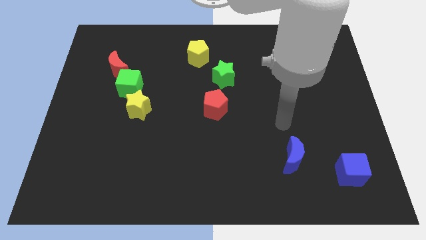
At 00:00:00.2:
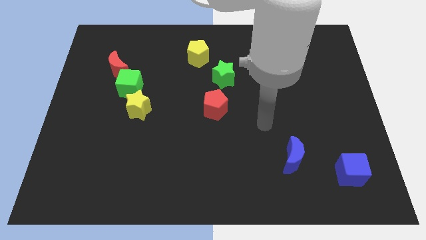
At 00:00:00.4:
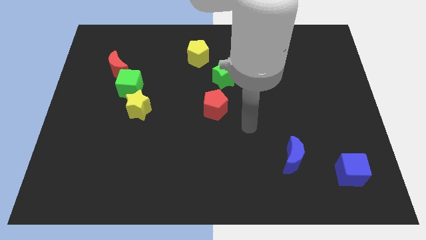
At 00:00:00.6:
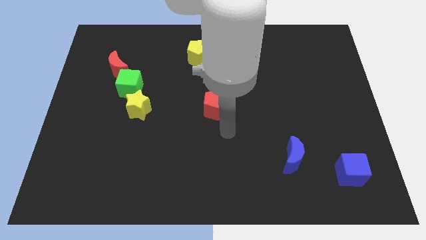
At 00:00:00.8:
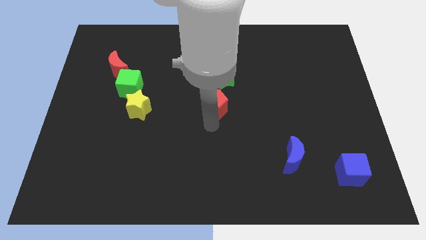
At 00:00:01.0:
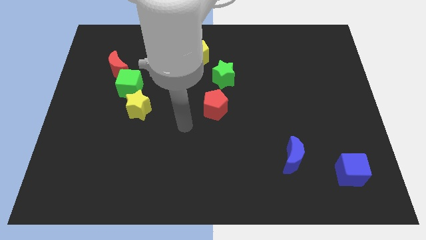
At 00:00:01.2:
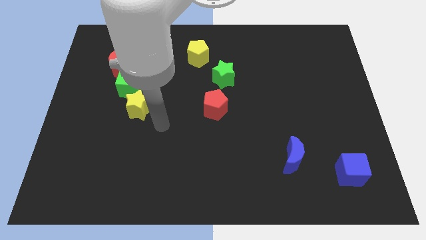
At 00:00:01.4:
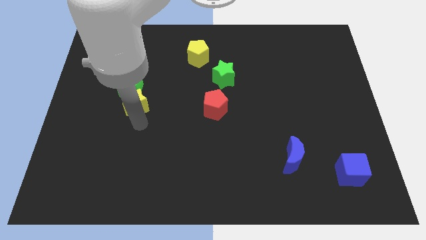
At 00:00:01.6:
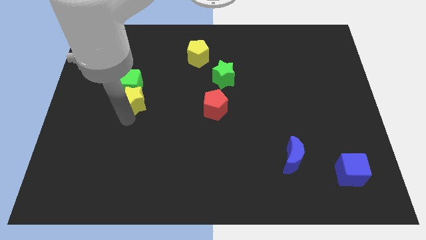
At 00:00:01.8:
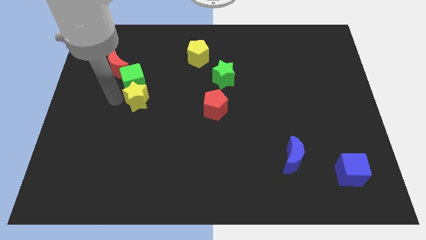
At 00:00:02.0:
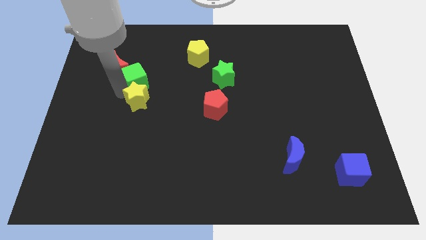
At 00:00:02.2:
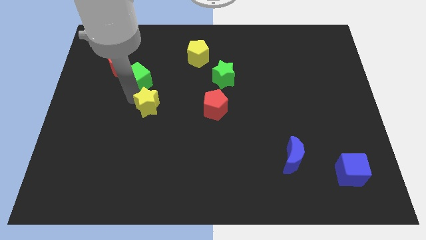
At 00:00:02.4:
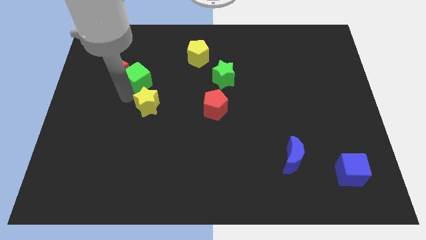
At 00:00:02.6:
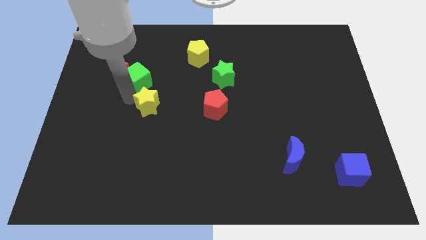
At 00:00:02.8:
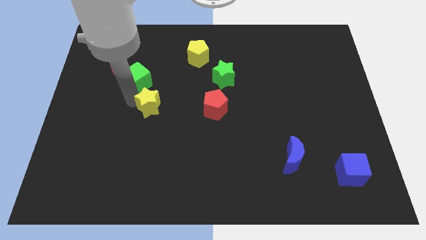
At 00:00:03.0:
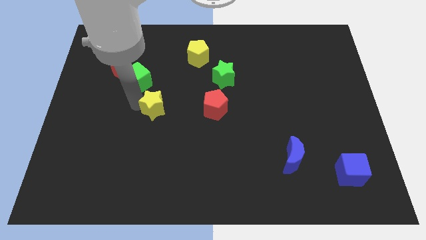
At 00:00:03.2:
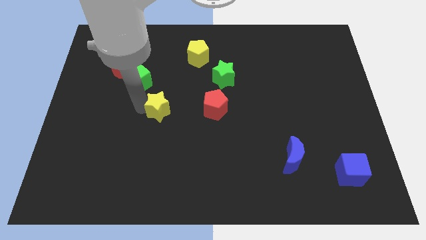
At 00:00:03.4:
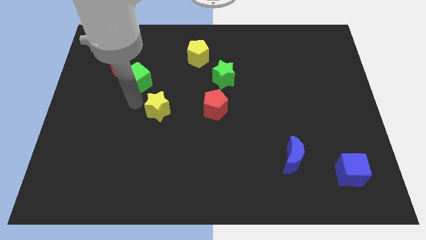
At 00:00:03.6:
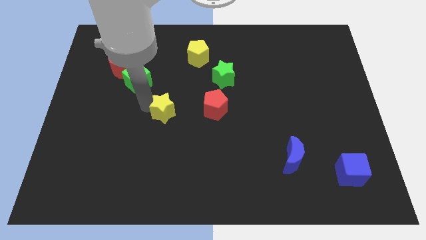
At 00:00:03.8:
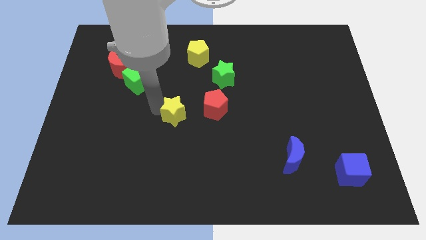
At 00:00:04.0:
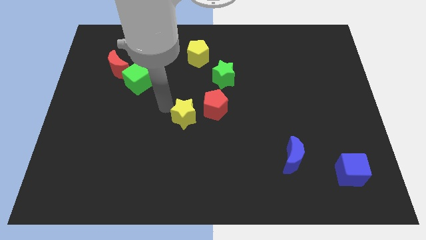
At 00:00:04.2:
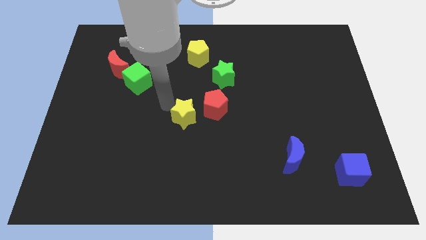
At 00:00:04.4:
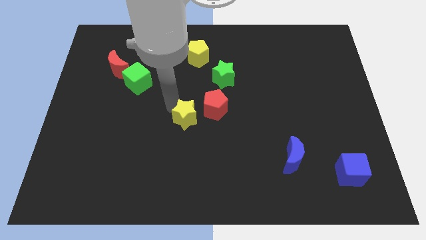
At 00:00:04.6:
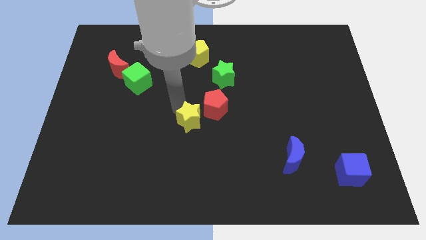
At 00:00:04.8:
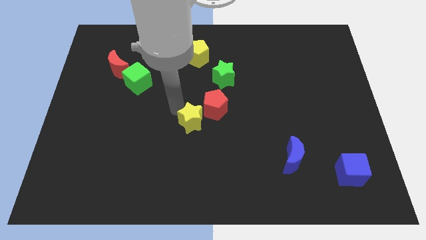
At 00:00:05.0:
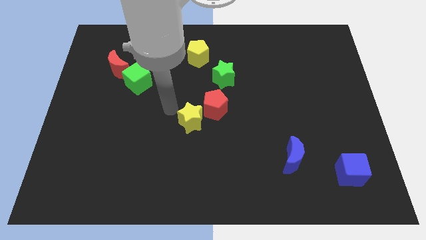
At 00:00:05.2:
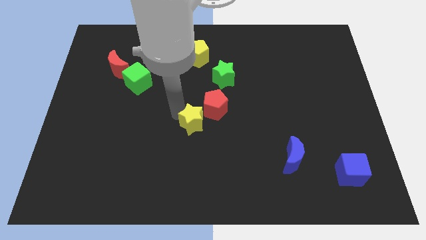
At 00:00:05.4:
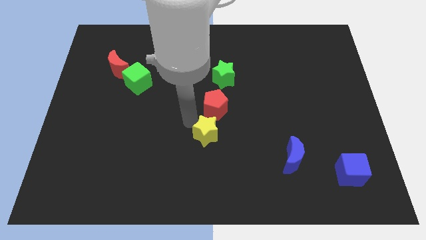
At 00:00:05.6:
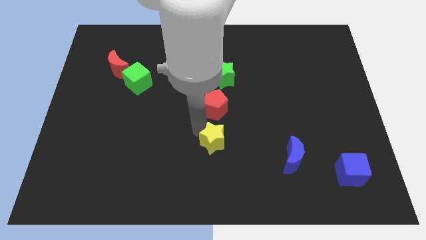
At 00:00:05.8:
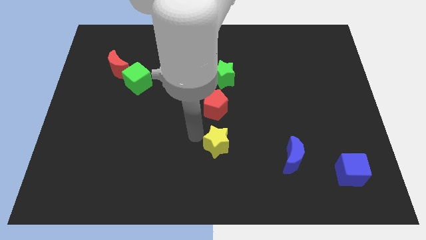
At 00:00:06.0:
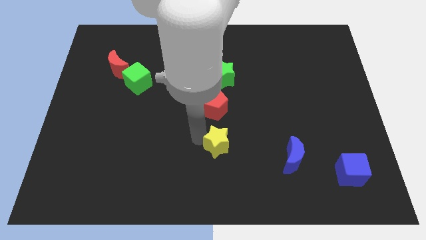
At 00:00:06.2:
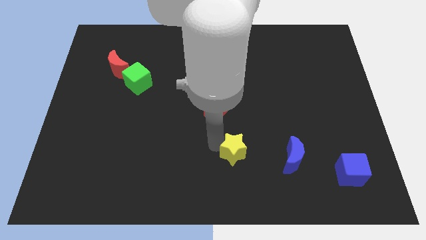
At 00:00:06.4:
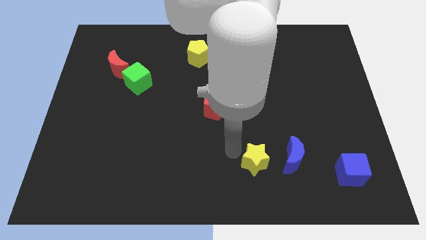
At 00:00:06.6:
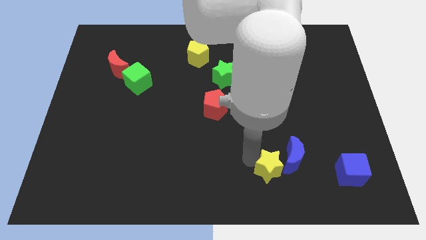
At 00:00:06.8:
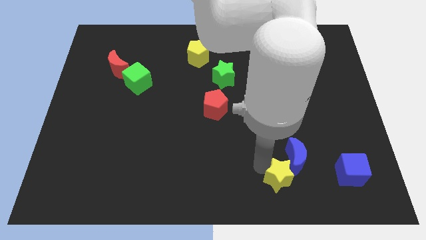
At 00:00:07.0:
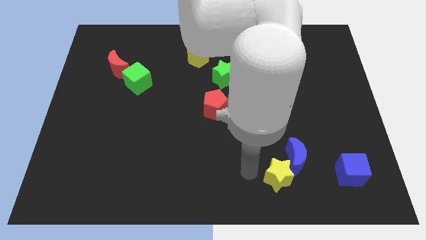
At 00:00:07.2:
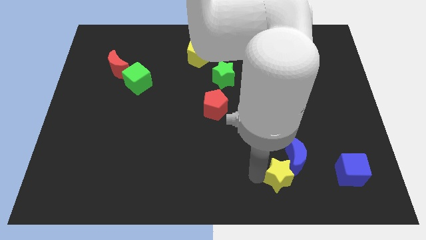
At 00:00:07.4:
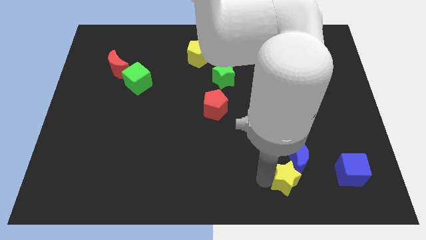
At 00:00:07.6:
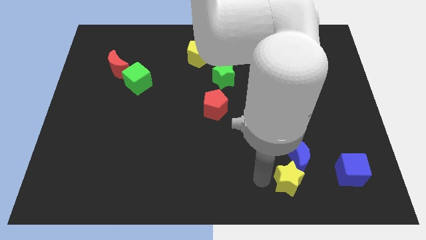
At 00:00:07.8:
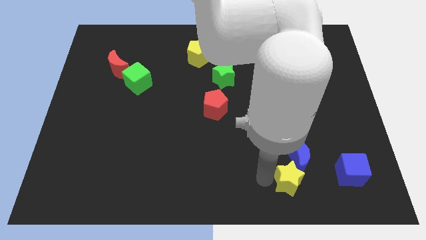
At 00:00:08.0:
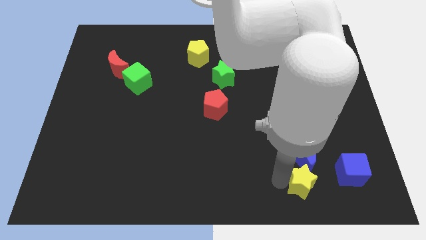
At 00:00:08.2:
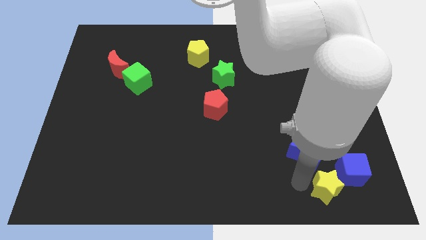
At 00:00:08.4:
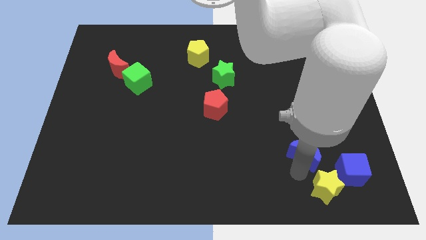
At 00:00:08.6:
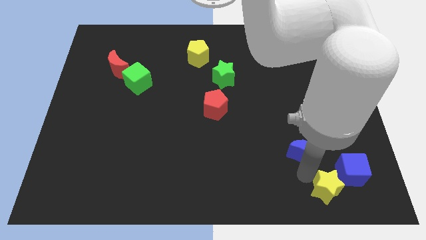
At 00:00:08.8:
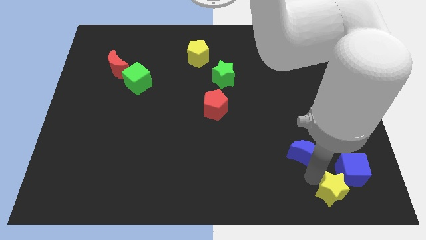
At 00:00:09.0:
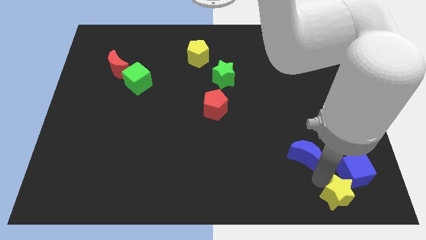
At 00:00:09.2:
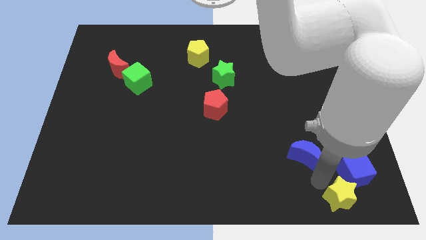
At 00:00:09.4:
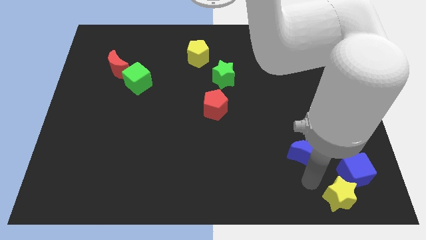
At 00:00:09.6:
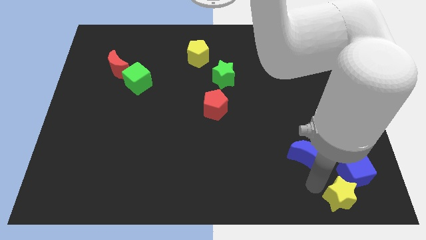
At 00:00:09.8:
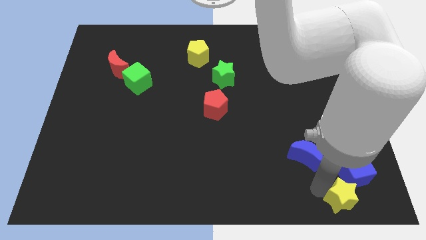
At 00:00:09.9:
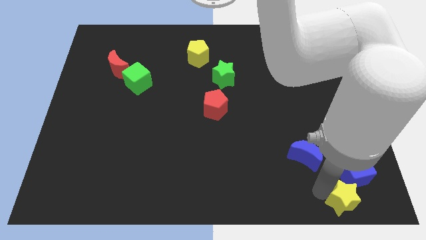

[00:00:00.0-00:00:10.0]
push the yellow star to the bottom right

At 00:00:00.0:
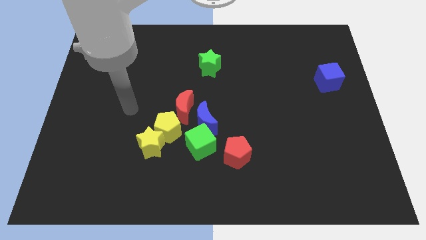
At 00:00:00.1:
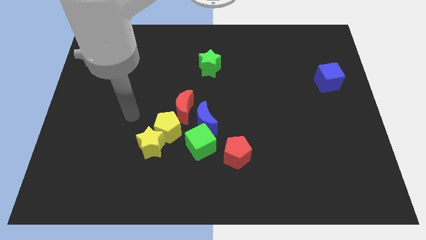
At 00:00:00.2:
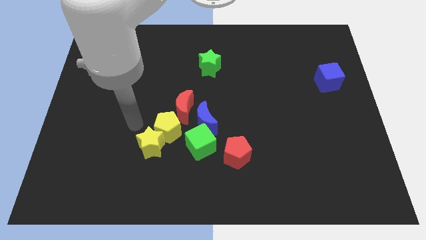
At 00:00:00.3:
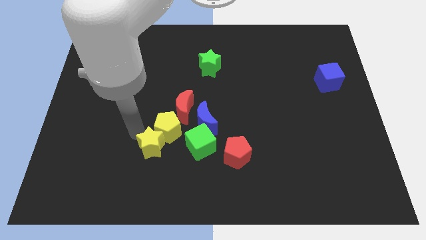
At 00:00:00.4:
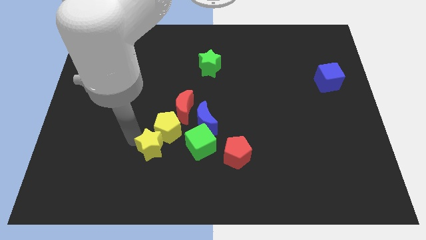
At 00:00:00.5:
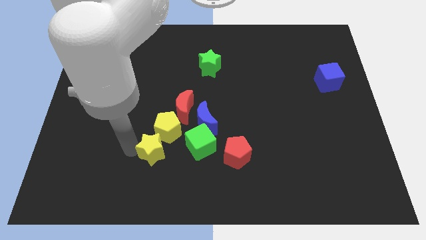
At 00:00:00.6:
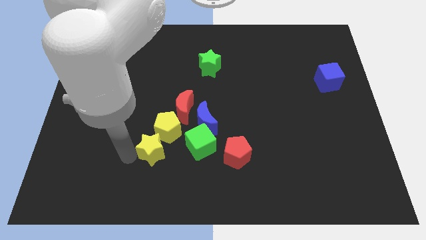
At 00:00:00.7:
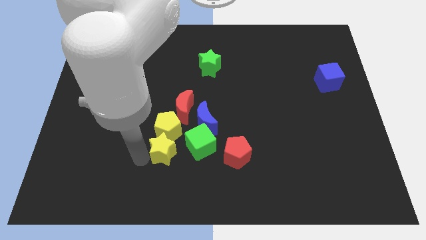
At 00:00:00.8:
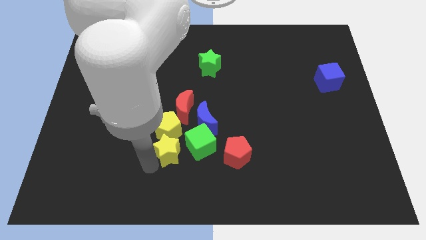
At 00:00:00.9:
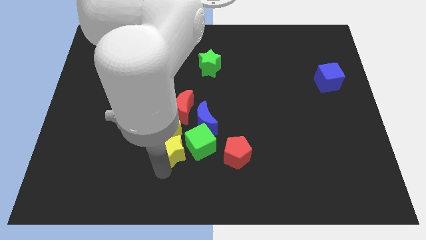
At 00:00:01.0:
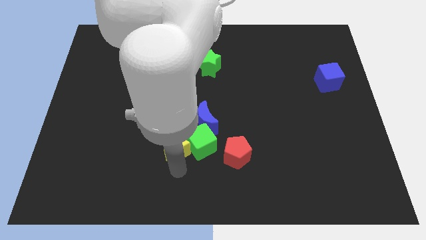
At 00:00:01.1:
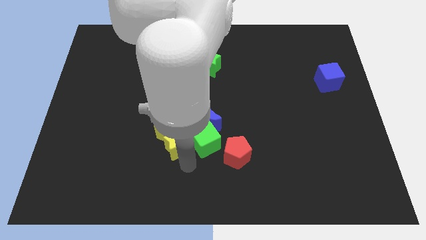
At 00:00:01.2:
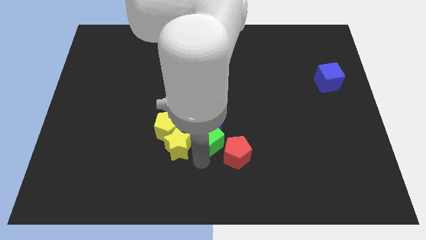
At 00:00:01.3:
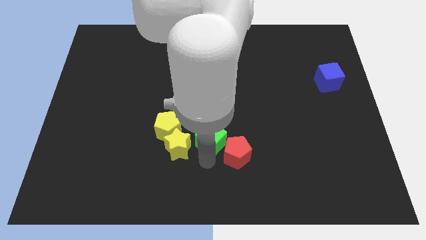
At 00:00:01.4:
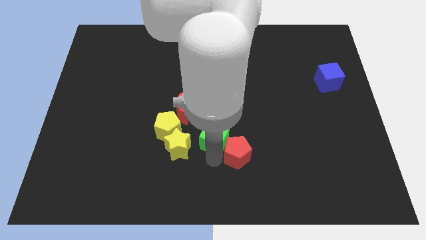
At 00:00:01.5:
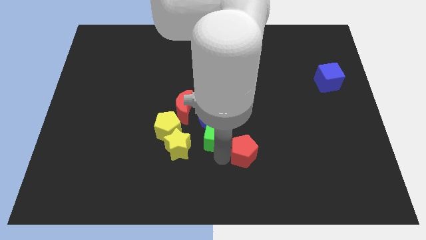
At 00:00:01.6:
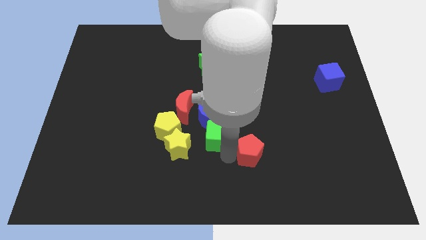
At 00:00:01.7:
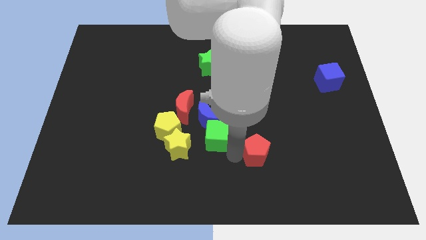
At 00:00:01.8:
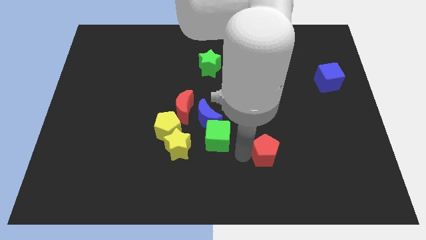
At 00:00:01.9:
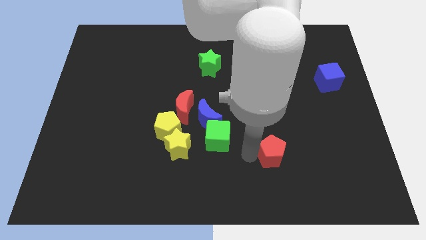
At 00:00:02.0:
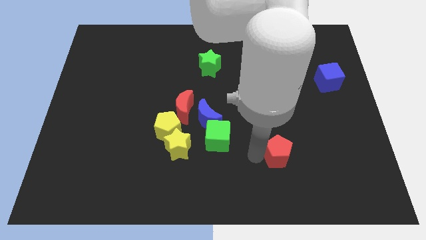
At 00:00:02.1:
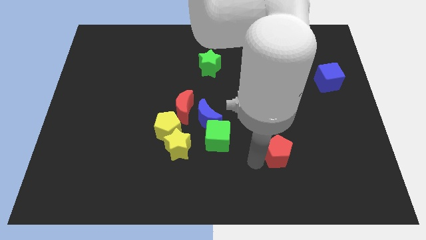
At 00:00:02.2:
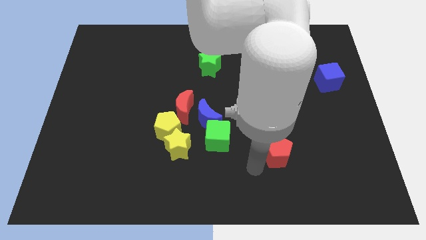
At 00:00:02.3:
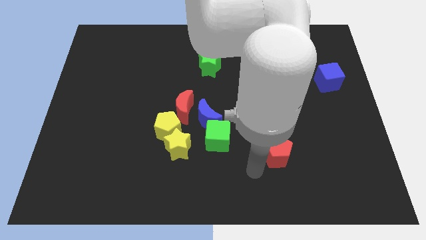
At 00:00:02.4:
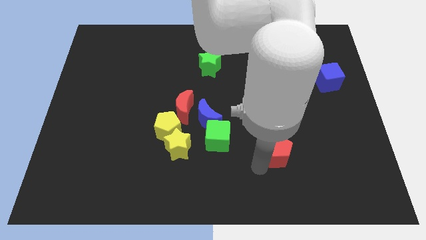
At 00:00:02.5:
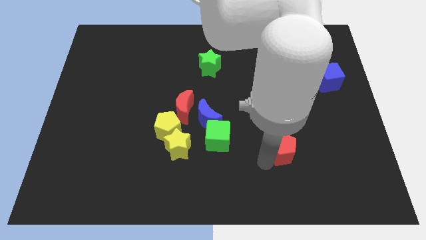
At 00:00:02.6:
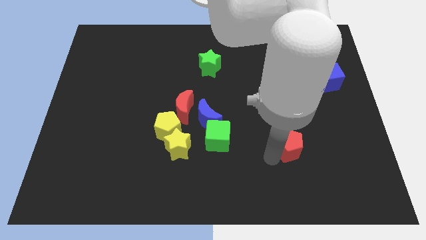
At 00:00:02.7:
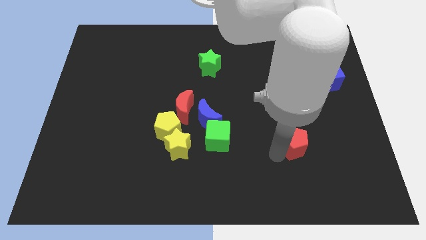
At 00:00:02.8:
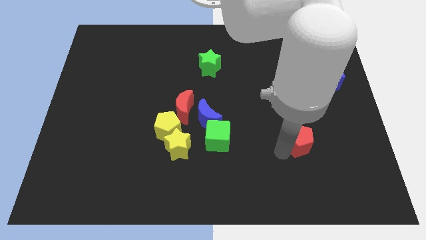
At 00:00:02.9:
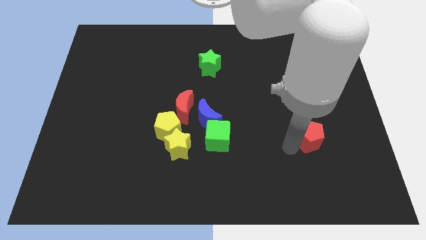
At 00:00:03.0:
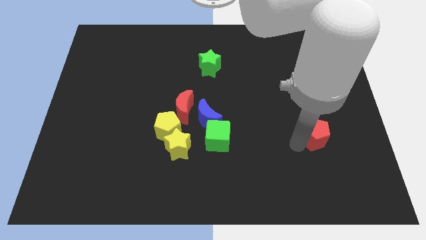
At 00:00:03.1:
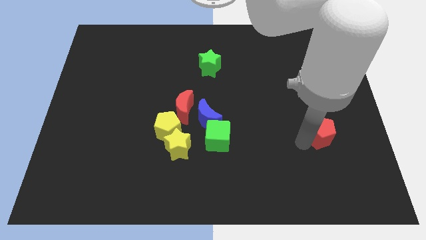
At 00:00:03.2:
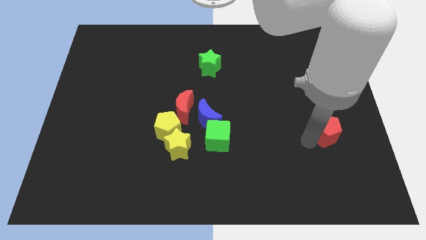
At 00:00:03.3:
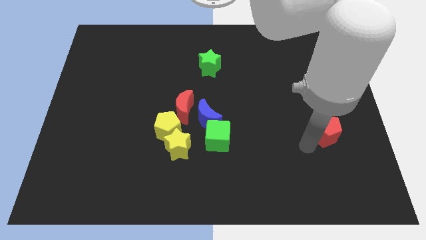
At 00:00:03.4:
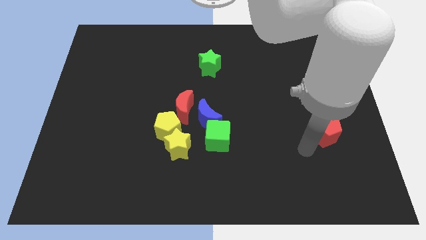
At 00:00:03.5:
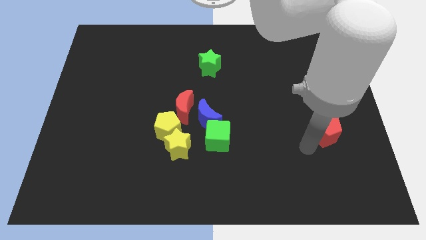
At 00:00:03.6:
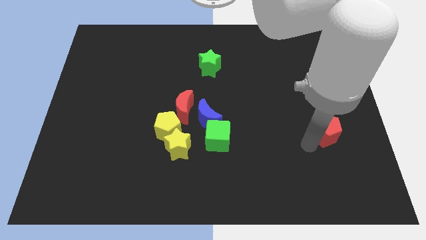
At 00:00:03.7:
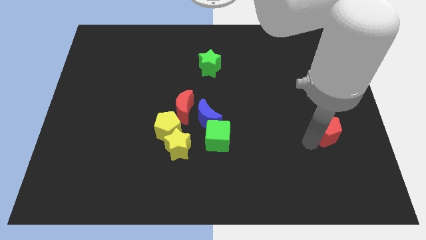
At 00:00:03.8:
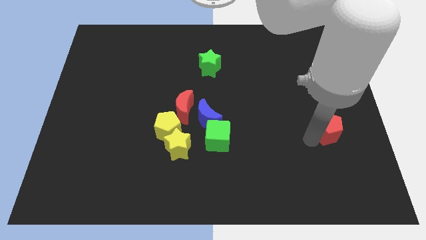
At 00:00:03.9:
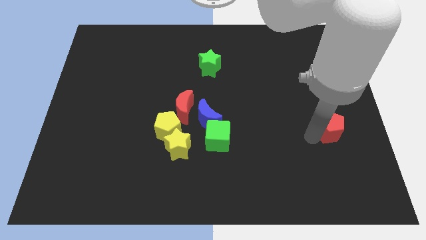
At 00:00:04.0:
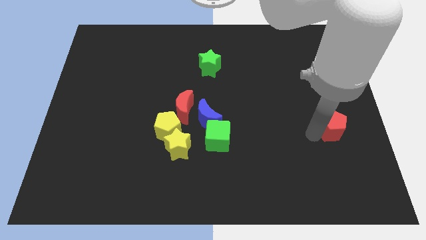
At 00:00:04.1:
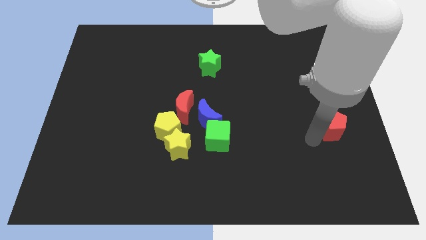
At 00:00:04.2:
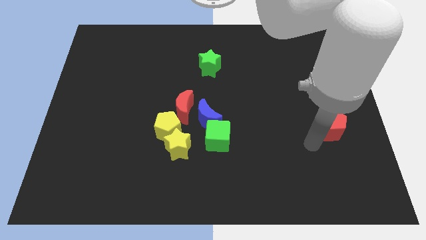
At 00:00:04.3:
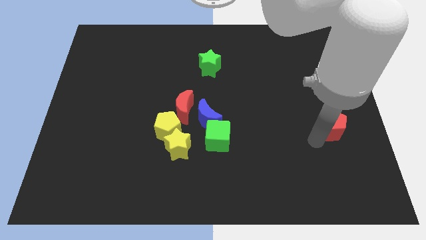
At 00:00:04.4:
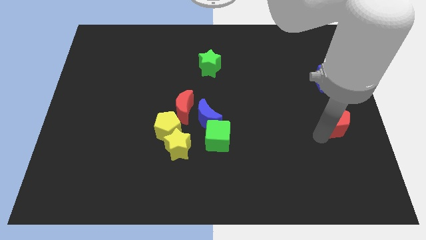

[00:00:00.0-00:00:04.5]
slide the red pentagon to the right side
